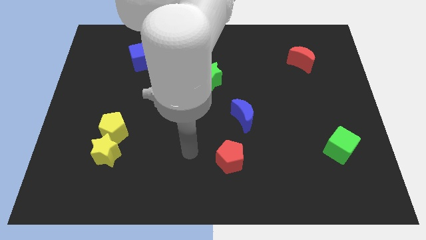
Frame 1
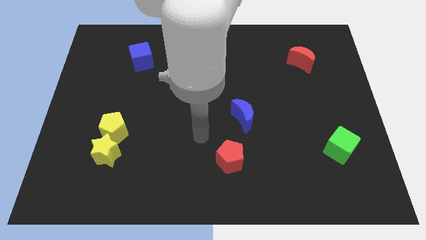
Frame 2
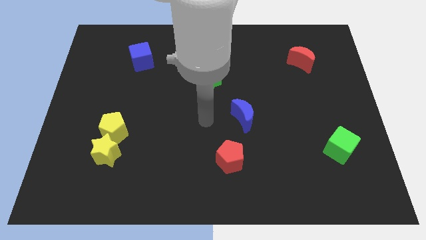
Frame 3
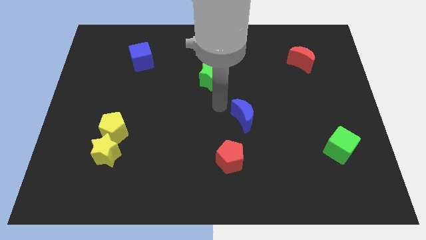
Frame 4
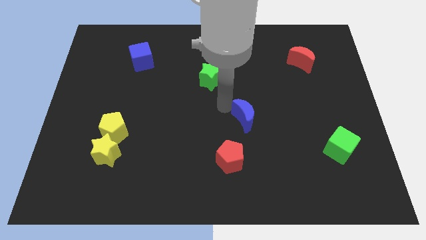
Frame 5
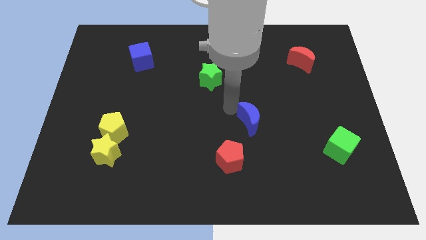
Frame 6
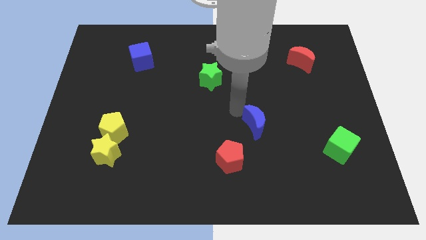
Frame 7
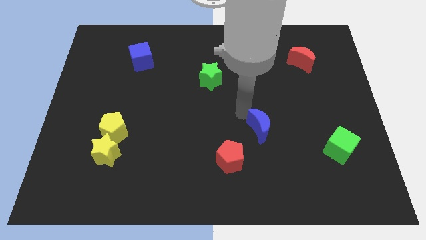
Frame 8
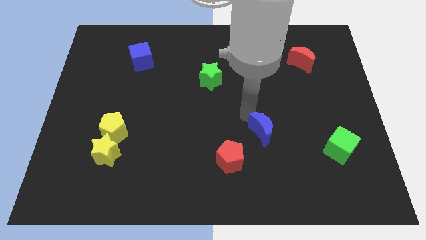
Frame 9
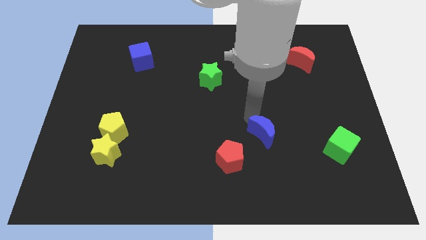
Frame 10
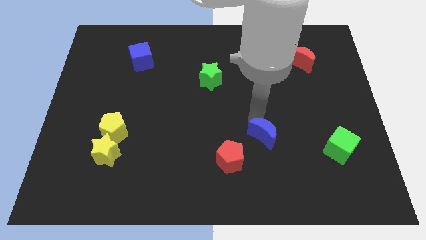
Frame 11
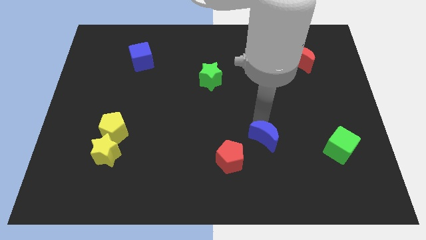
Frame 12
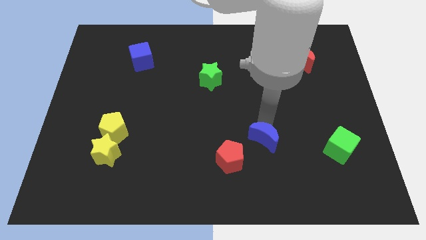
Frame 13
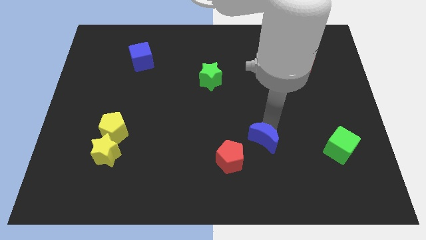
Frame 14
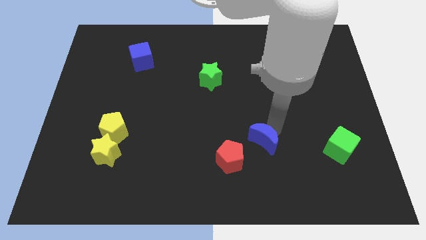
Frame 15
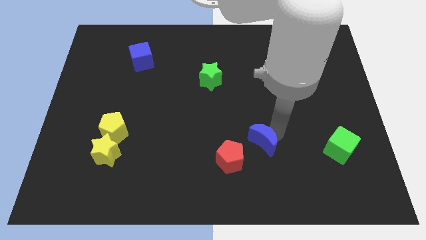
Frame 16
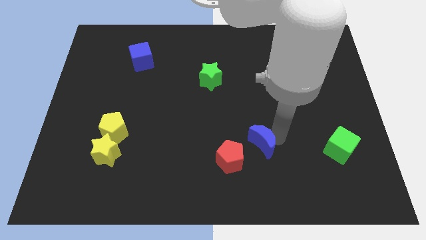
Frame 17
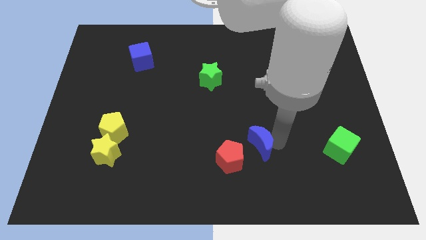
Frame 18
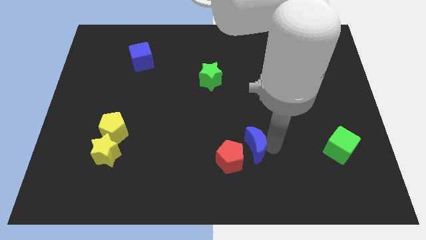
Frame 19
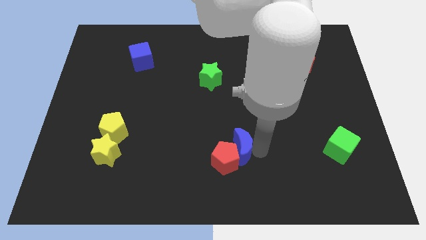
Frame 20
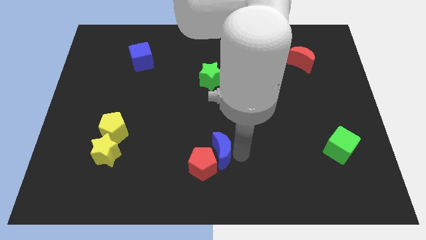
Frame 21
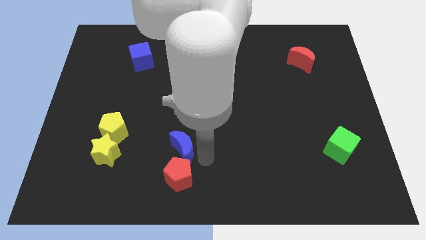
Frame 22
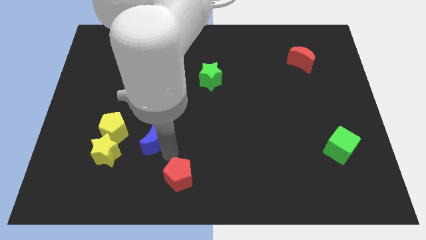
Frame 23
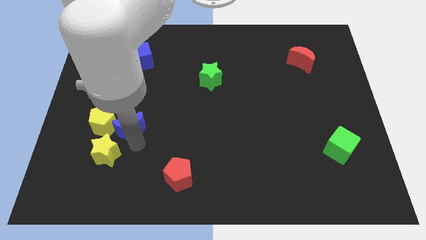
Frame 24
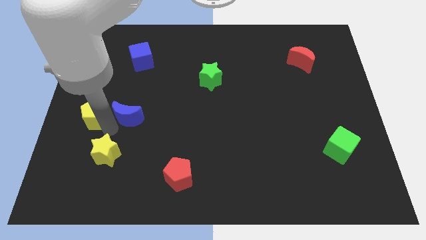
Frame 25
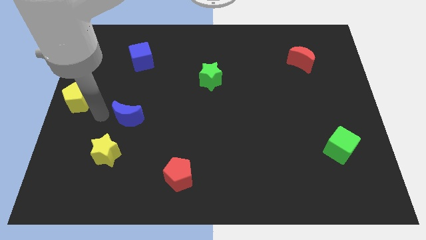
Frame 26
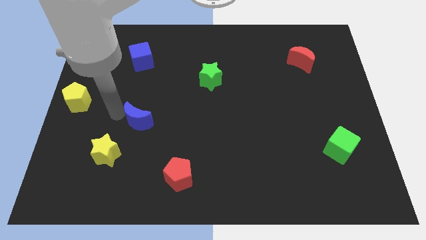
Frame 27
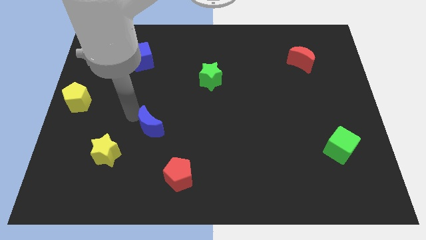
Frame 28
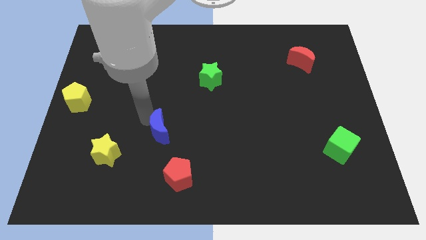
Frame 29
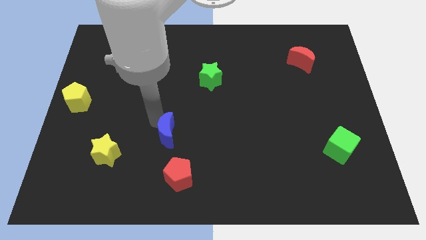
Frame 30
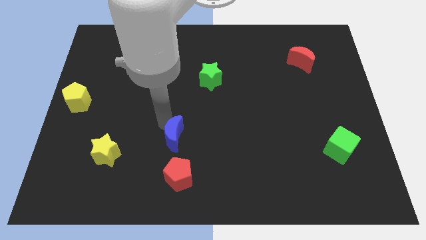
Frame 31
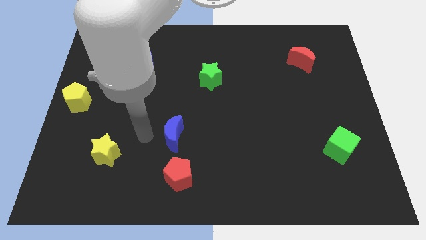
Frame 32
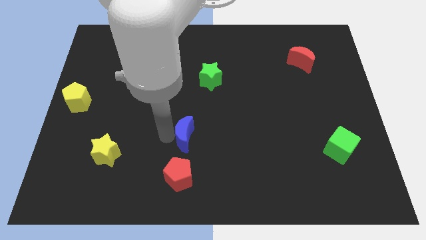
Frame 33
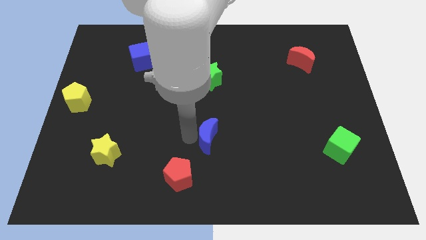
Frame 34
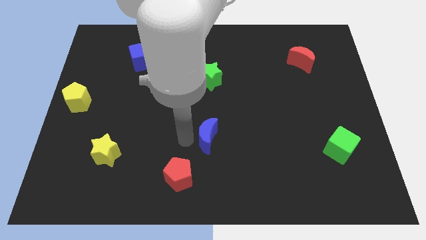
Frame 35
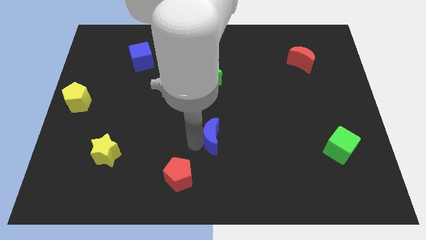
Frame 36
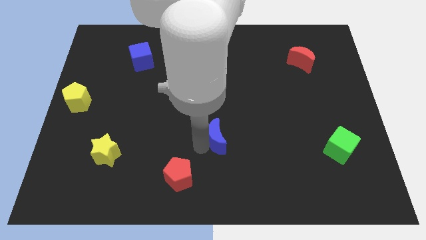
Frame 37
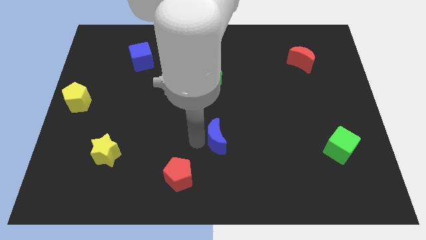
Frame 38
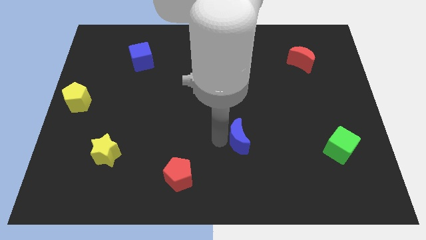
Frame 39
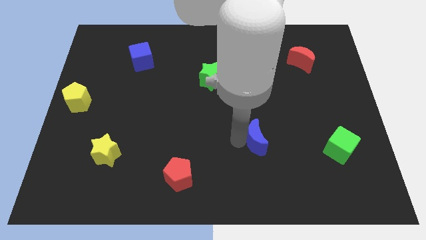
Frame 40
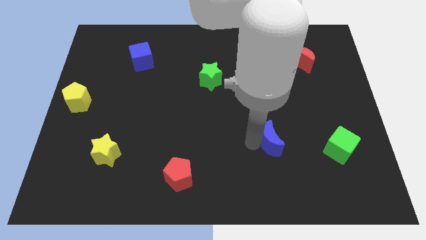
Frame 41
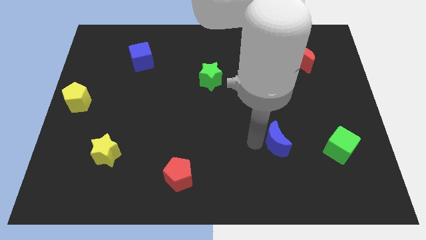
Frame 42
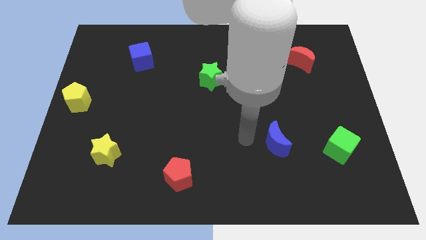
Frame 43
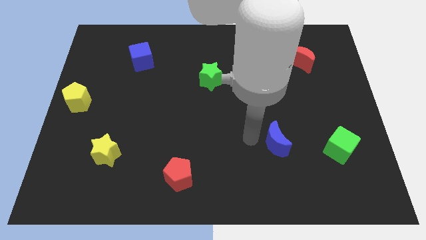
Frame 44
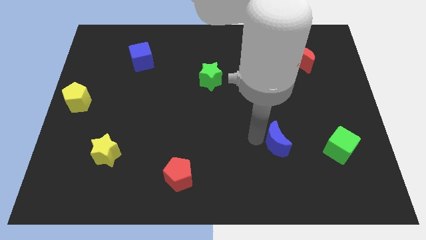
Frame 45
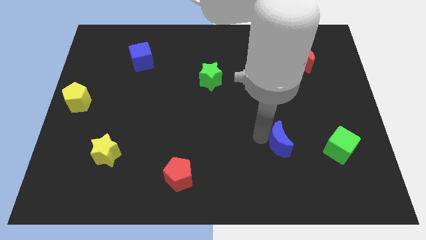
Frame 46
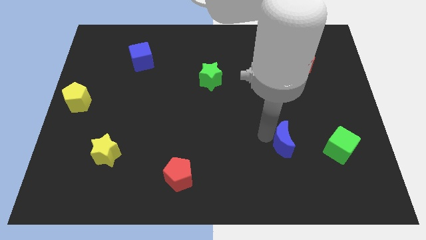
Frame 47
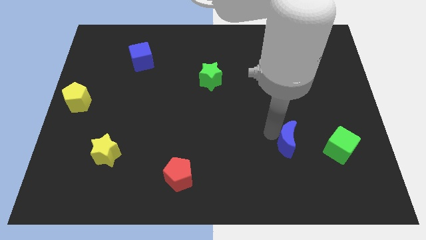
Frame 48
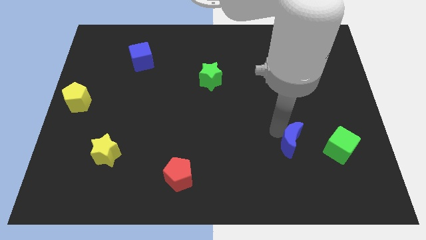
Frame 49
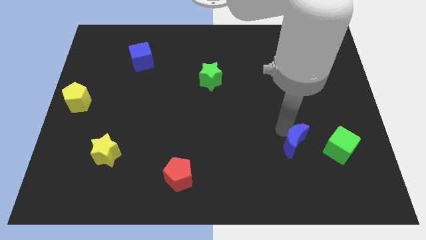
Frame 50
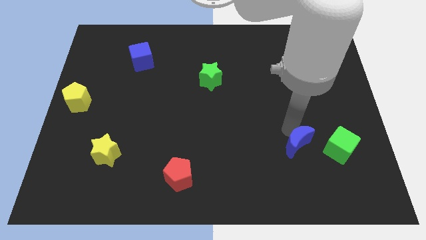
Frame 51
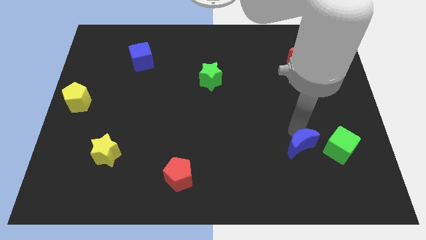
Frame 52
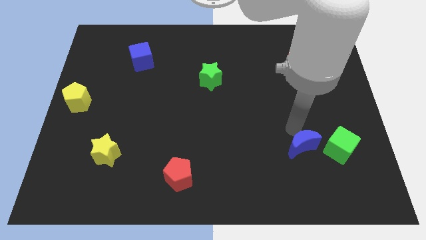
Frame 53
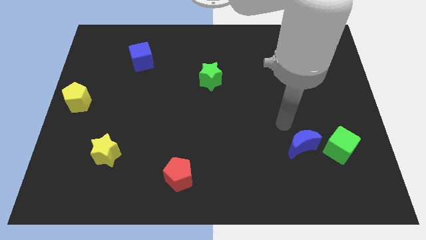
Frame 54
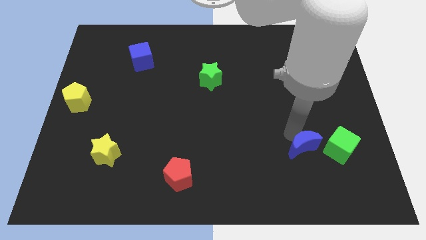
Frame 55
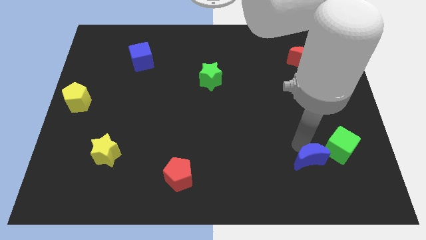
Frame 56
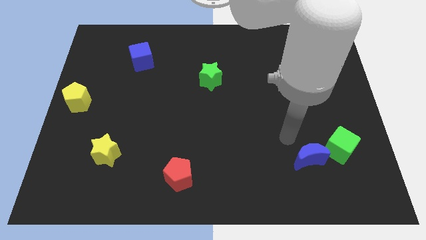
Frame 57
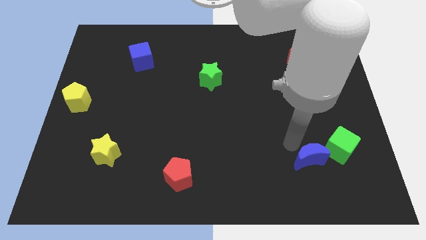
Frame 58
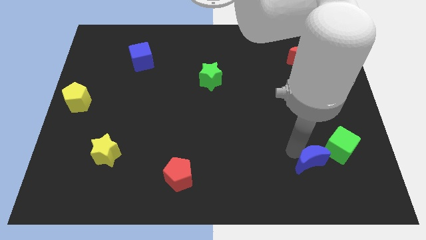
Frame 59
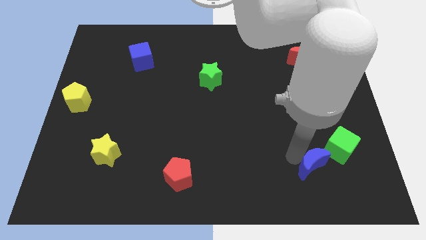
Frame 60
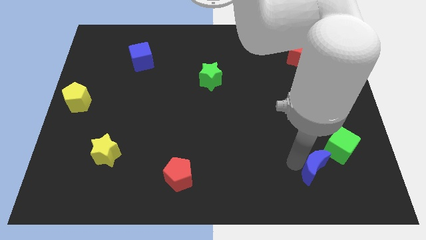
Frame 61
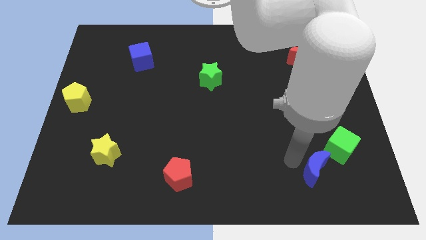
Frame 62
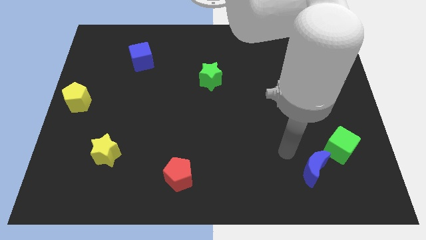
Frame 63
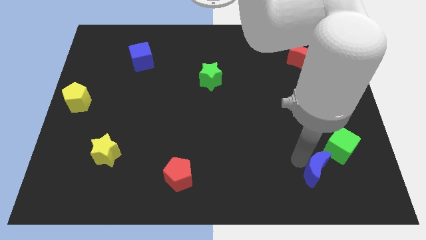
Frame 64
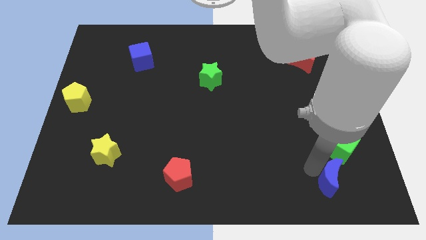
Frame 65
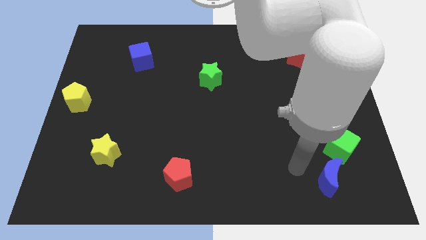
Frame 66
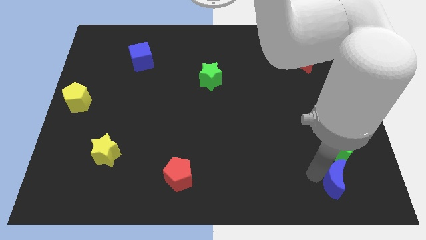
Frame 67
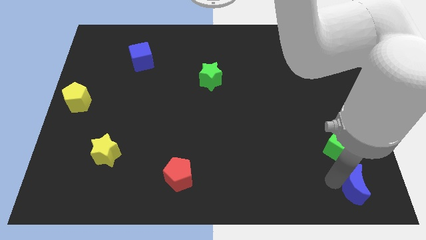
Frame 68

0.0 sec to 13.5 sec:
put the blue moon to the lower right corner
